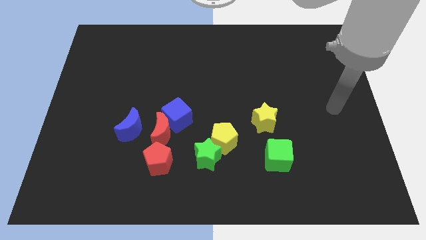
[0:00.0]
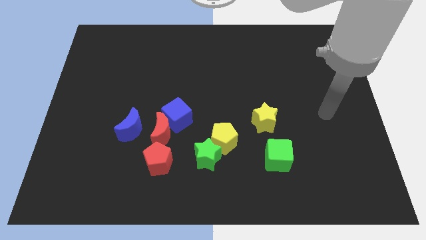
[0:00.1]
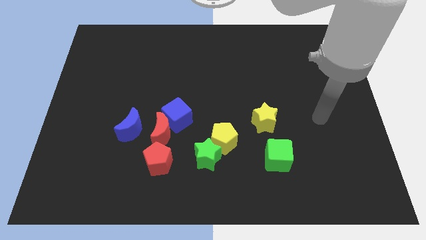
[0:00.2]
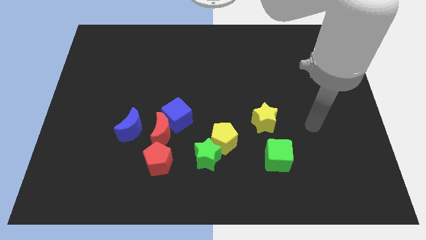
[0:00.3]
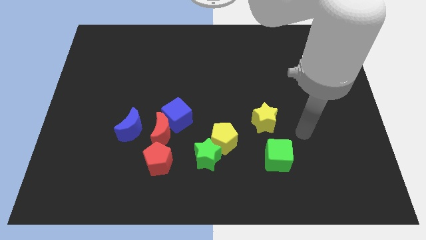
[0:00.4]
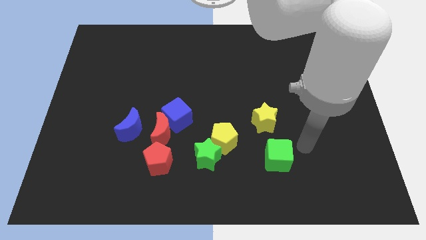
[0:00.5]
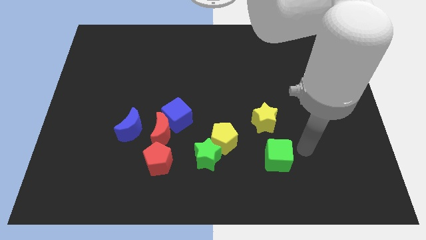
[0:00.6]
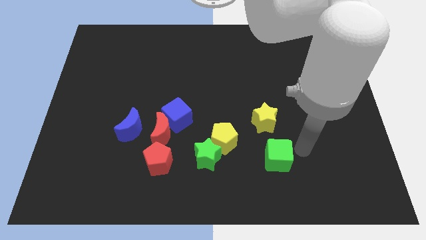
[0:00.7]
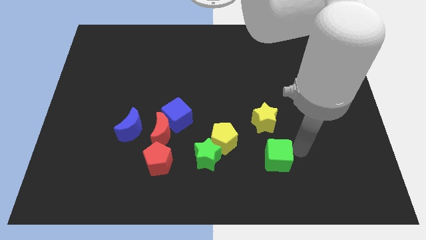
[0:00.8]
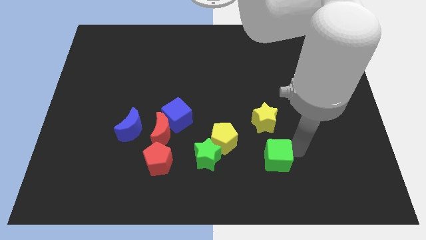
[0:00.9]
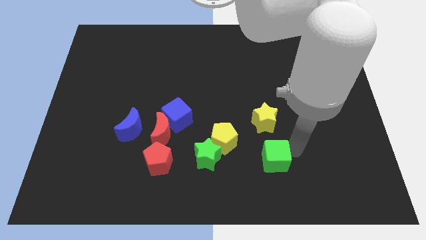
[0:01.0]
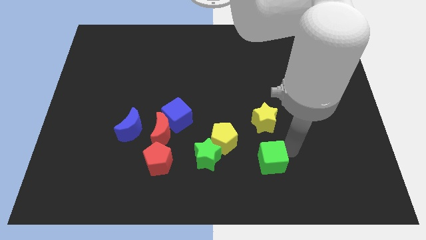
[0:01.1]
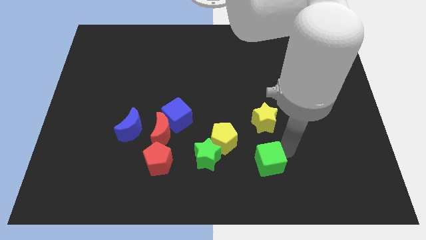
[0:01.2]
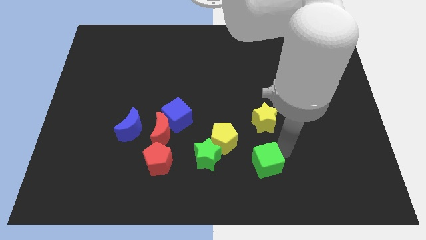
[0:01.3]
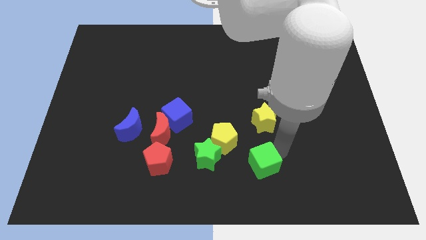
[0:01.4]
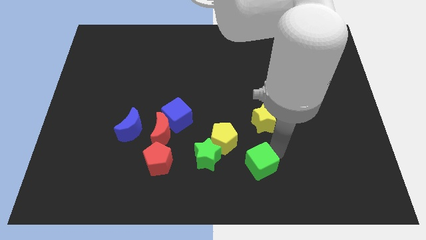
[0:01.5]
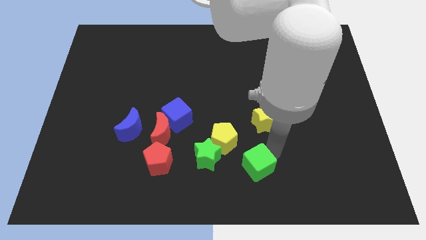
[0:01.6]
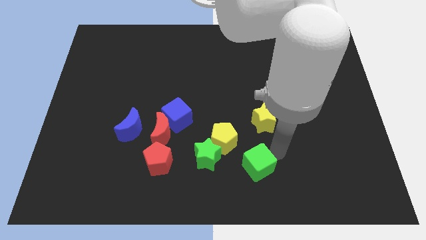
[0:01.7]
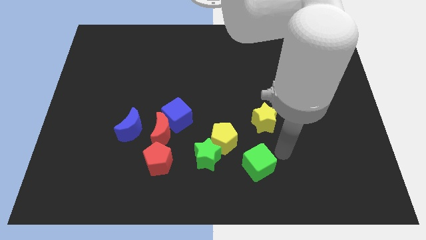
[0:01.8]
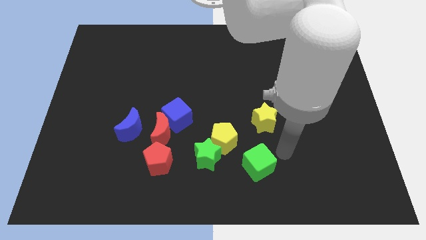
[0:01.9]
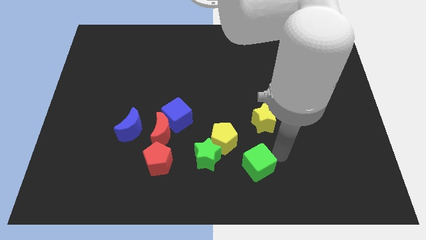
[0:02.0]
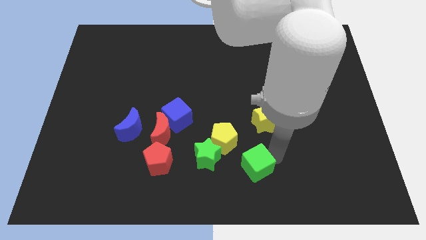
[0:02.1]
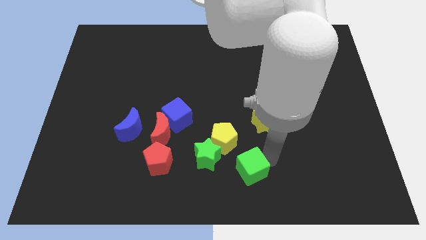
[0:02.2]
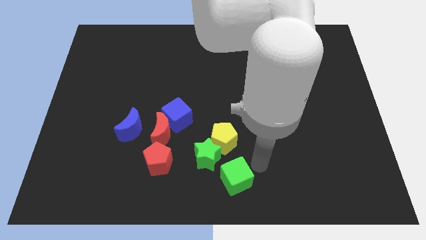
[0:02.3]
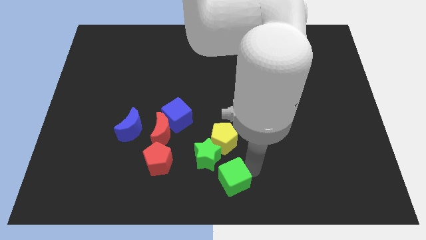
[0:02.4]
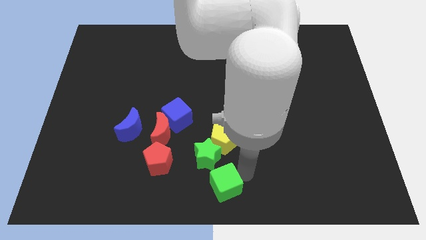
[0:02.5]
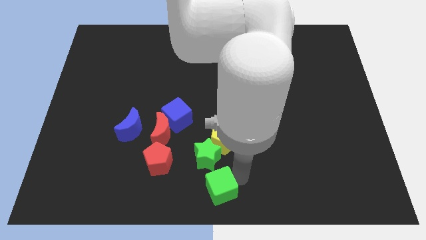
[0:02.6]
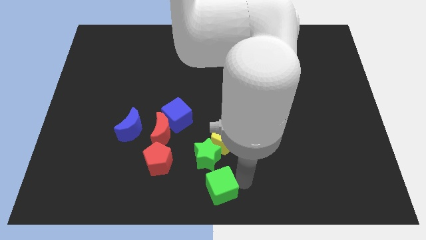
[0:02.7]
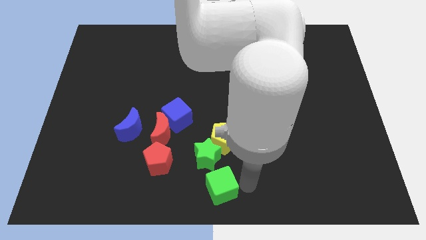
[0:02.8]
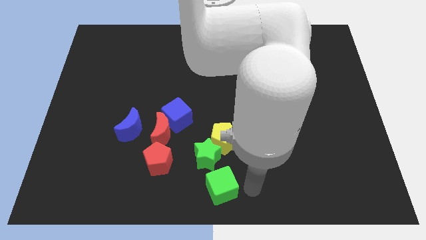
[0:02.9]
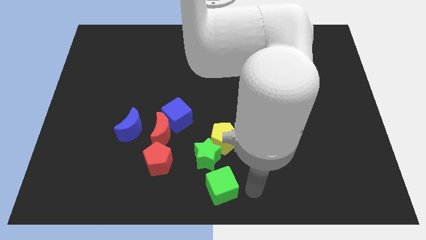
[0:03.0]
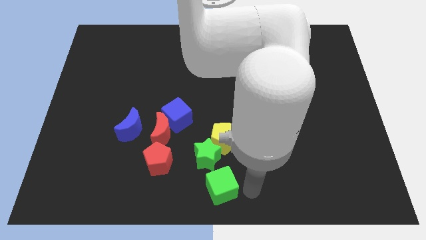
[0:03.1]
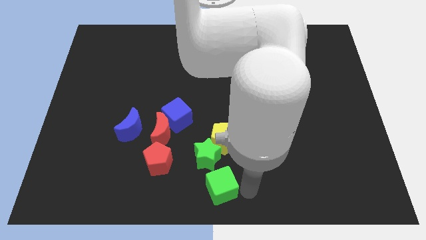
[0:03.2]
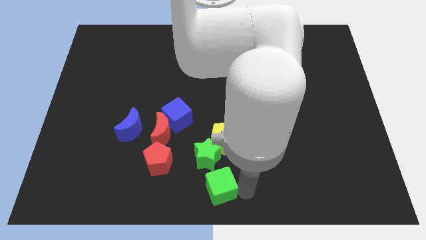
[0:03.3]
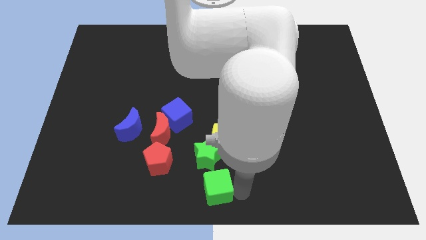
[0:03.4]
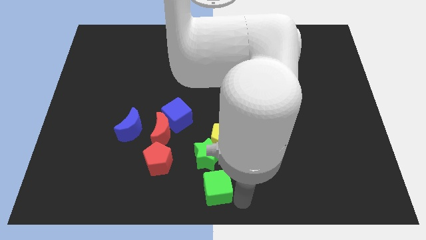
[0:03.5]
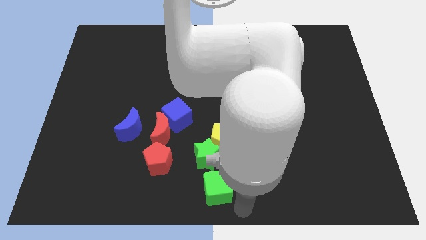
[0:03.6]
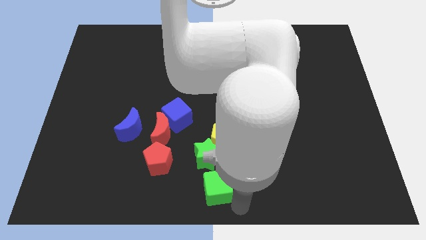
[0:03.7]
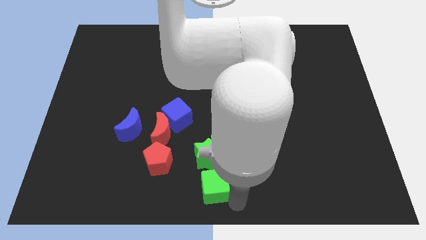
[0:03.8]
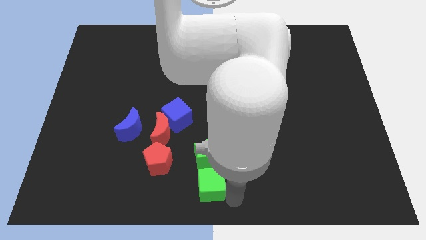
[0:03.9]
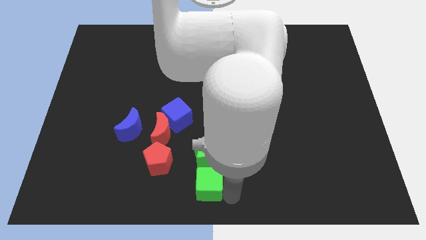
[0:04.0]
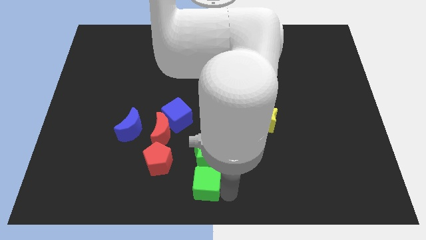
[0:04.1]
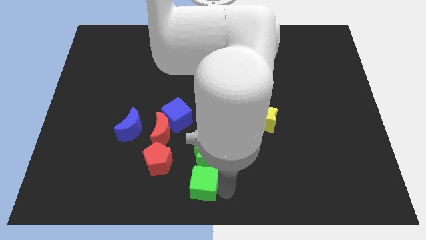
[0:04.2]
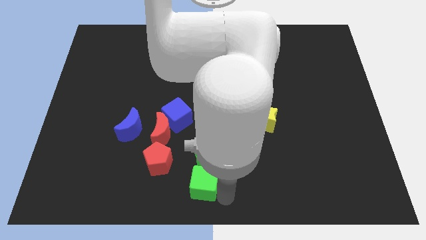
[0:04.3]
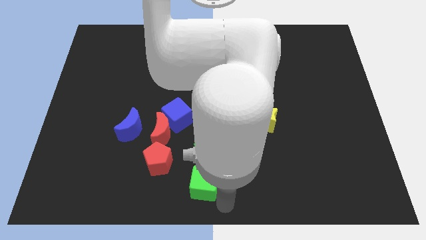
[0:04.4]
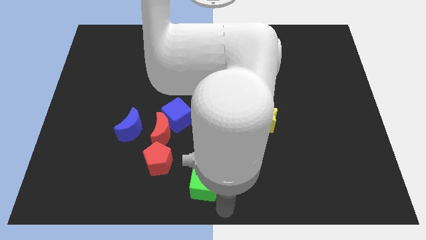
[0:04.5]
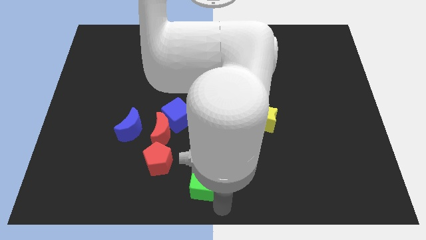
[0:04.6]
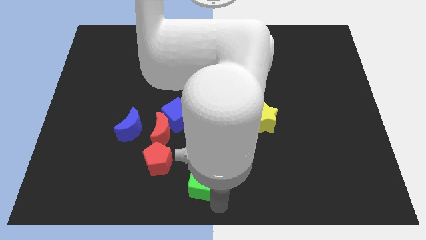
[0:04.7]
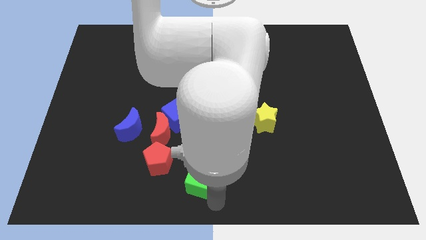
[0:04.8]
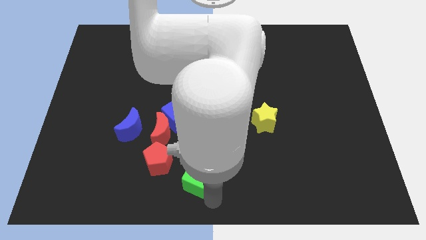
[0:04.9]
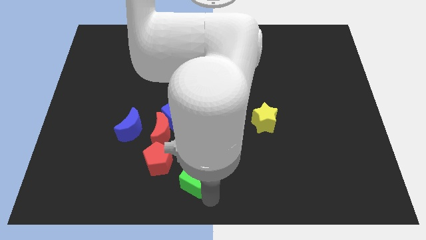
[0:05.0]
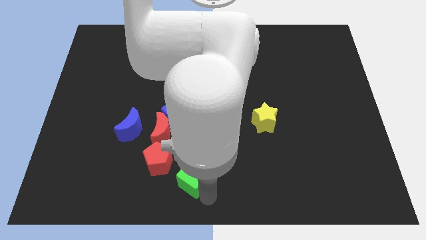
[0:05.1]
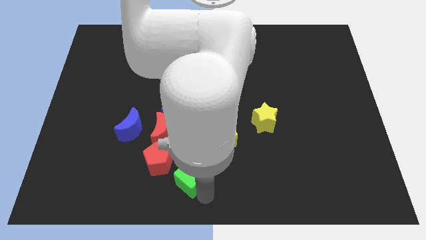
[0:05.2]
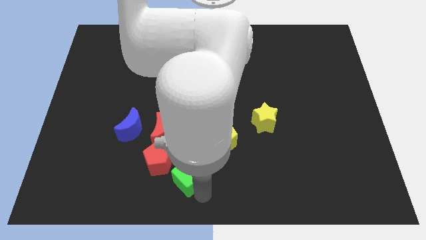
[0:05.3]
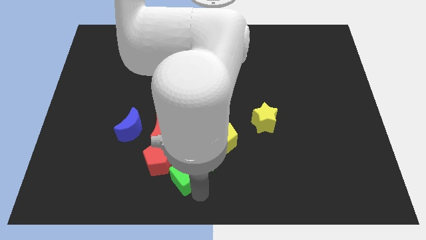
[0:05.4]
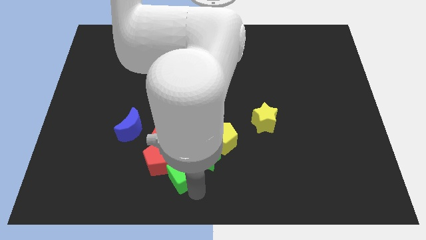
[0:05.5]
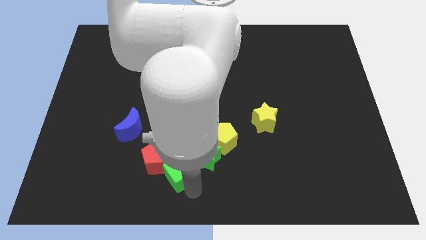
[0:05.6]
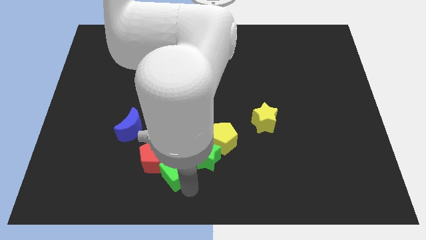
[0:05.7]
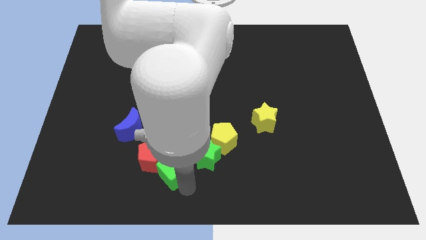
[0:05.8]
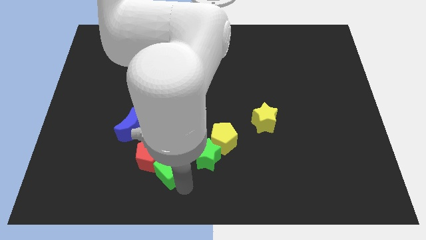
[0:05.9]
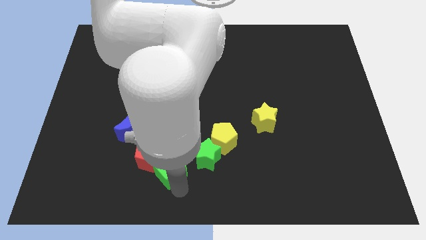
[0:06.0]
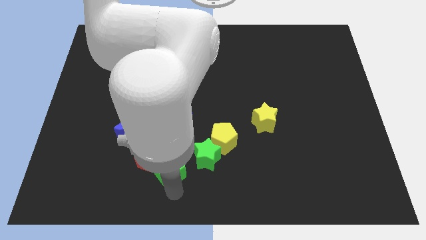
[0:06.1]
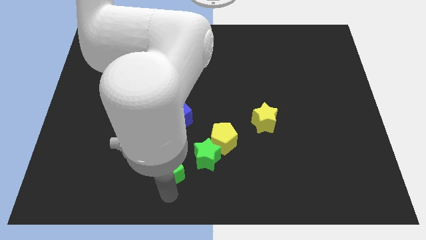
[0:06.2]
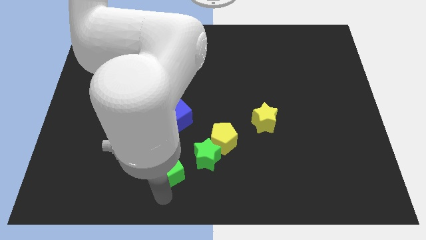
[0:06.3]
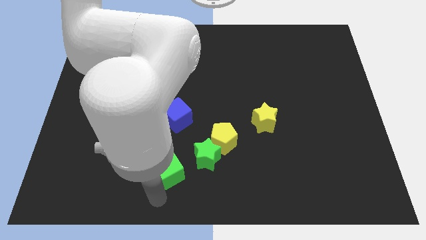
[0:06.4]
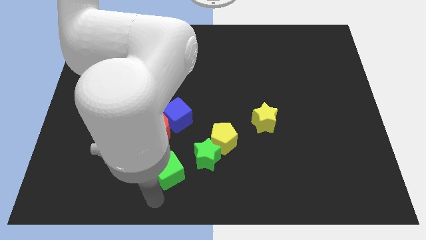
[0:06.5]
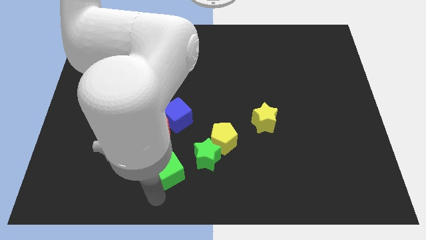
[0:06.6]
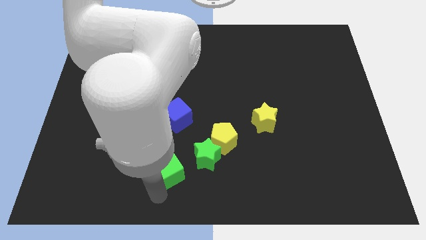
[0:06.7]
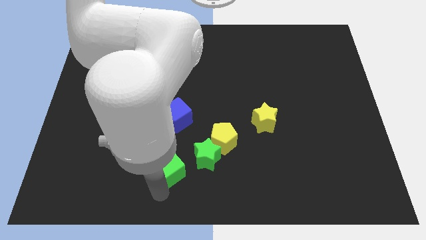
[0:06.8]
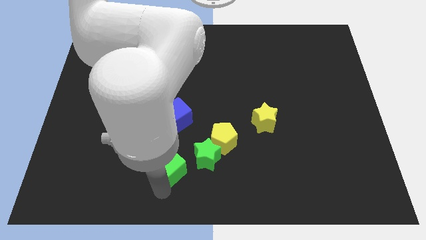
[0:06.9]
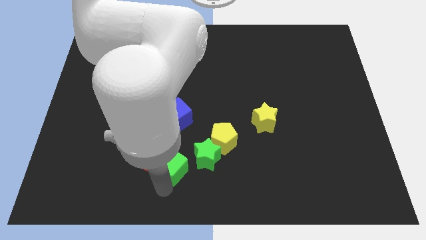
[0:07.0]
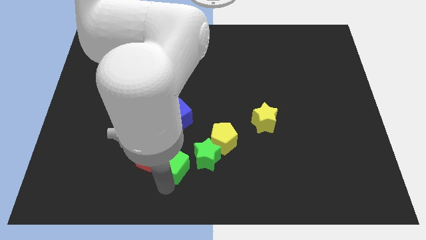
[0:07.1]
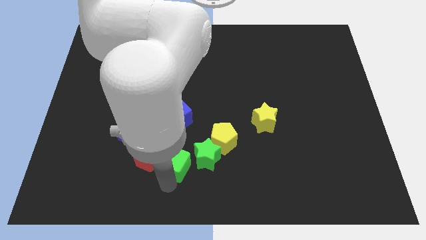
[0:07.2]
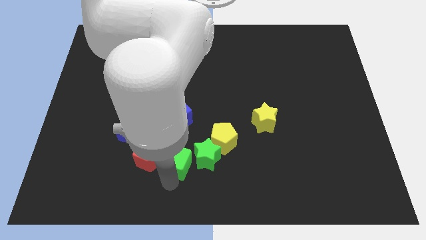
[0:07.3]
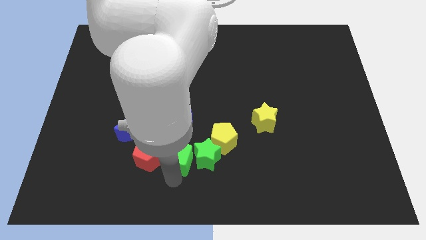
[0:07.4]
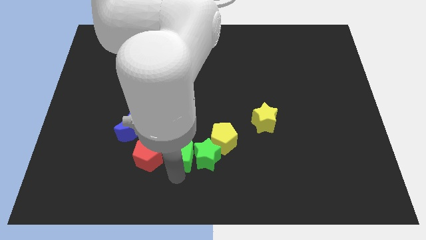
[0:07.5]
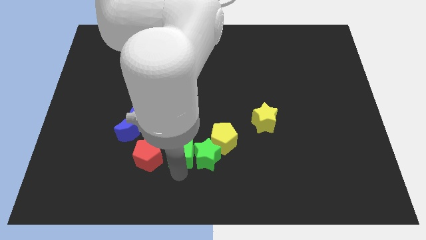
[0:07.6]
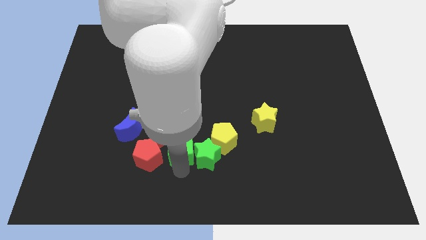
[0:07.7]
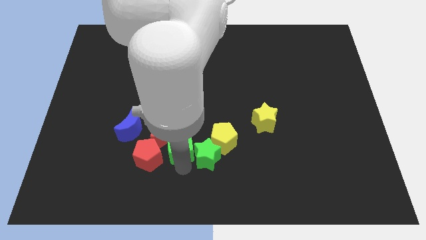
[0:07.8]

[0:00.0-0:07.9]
slide the green cube to the red moon
